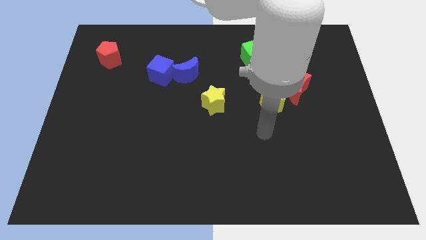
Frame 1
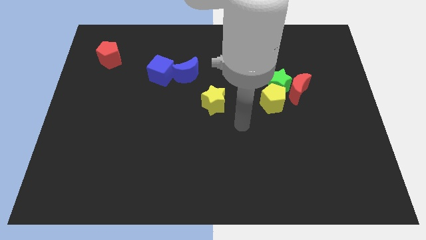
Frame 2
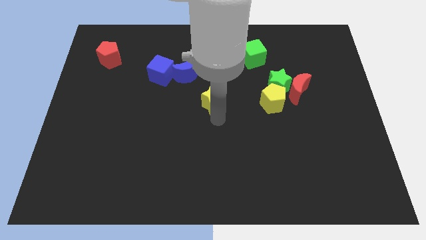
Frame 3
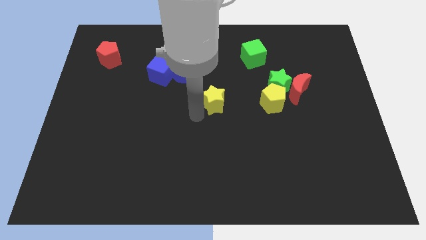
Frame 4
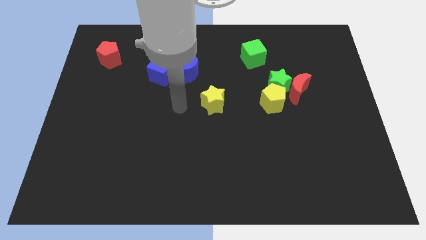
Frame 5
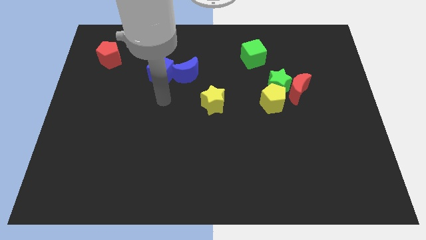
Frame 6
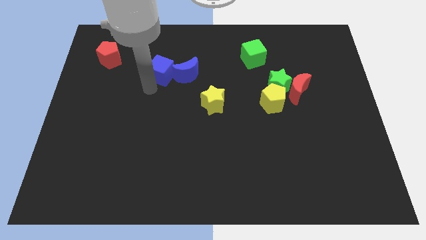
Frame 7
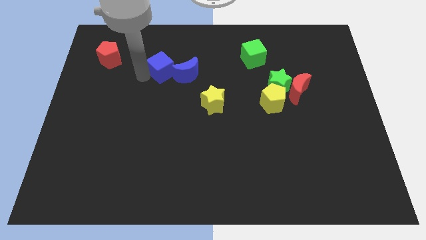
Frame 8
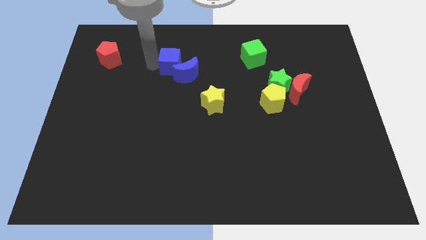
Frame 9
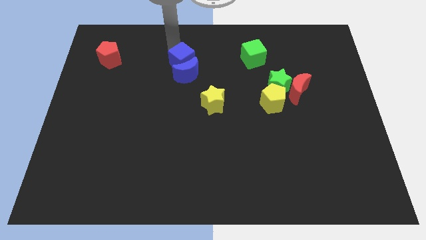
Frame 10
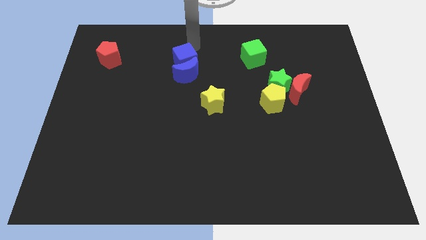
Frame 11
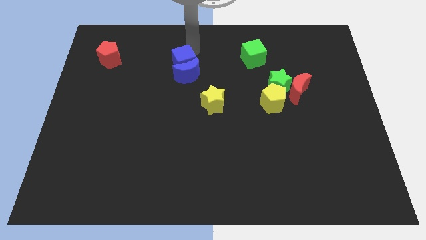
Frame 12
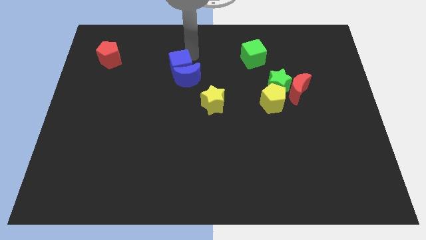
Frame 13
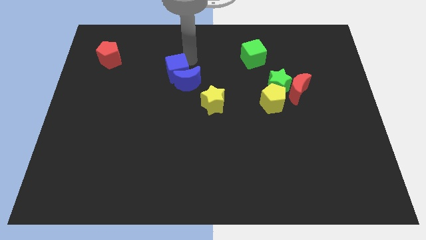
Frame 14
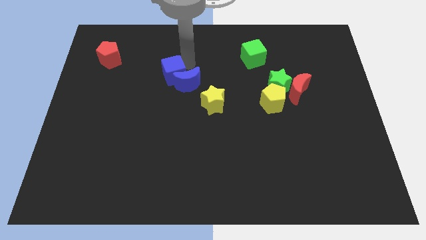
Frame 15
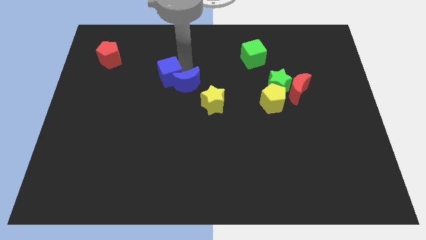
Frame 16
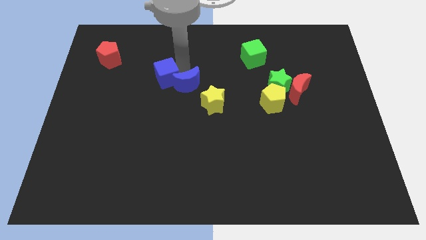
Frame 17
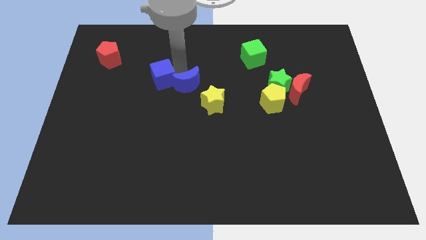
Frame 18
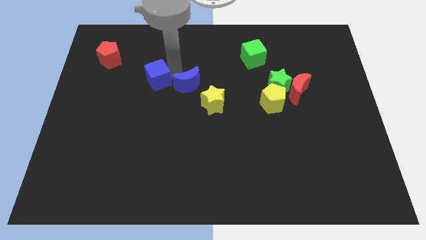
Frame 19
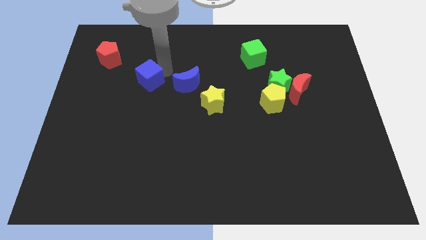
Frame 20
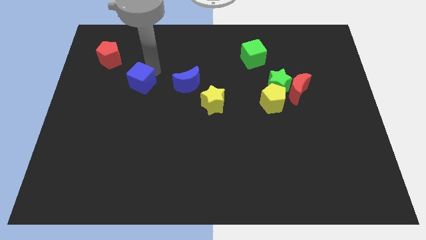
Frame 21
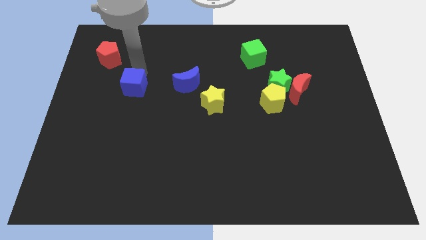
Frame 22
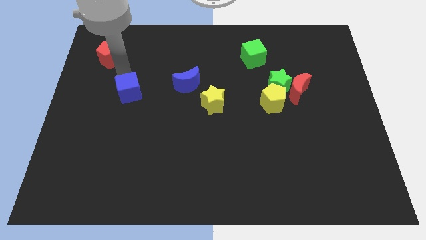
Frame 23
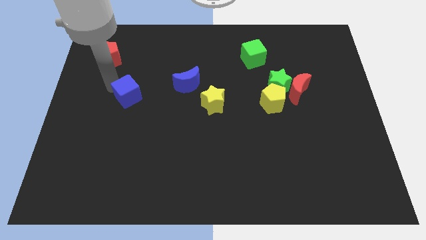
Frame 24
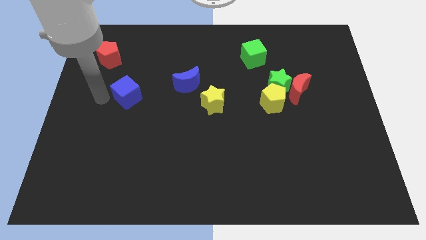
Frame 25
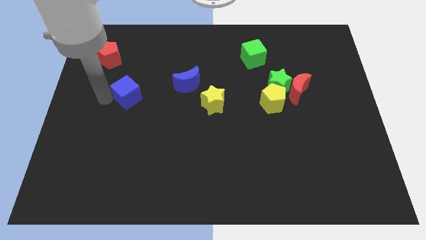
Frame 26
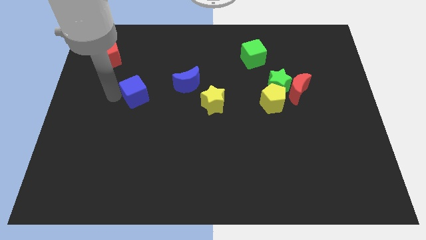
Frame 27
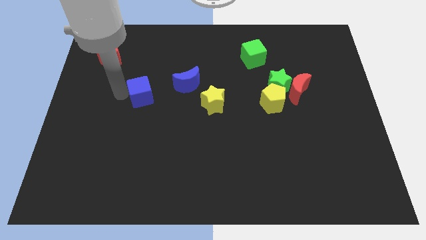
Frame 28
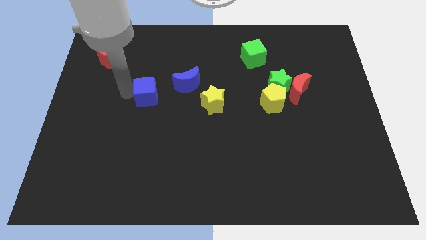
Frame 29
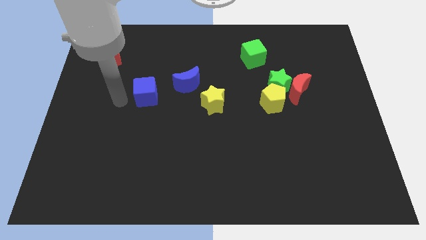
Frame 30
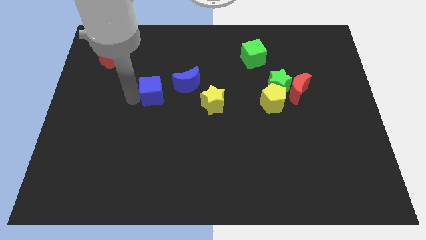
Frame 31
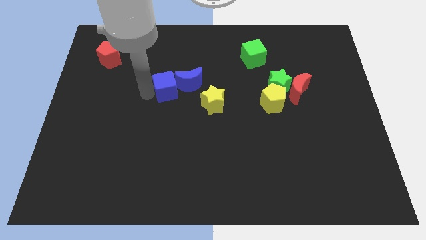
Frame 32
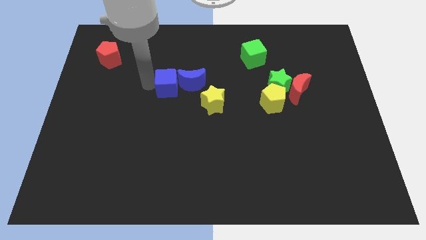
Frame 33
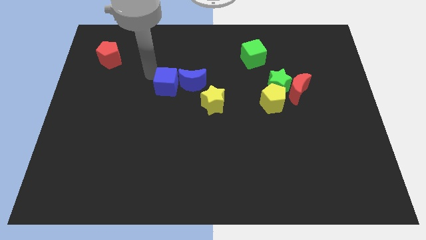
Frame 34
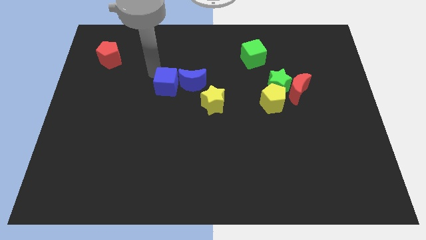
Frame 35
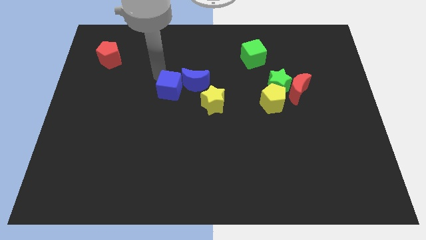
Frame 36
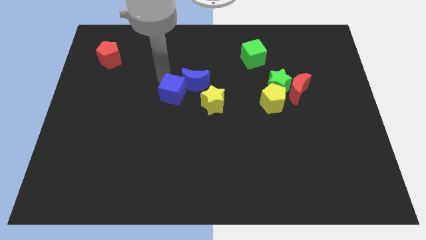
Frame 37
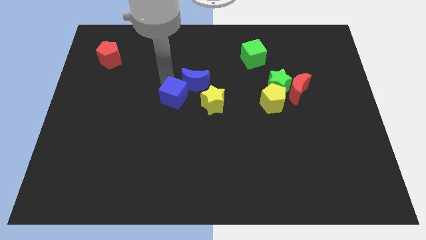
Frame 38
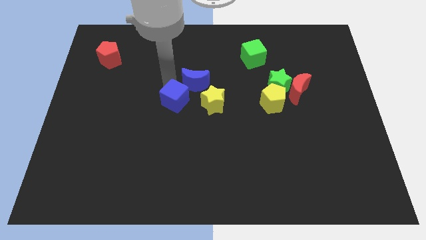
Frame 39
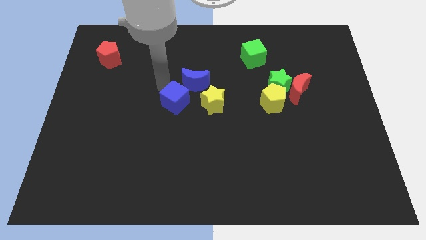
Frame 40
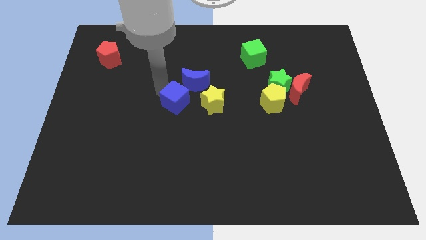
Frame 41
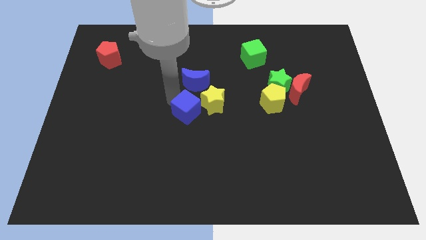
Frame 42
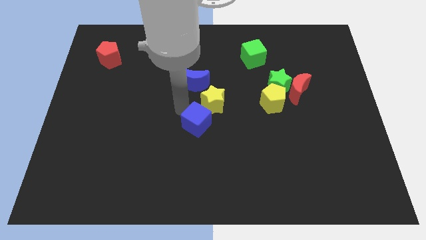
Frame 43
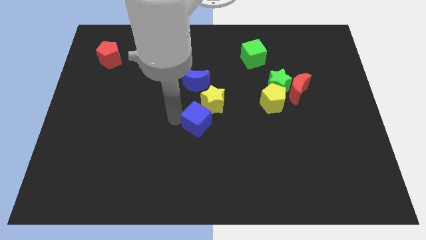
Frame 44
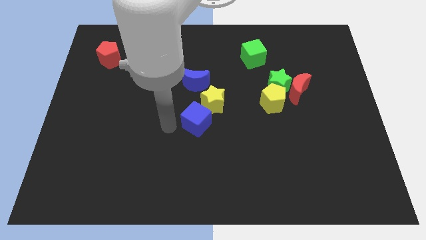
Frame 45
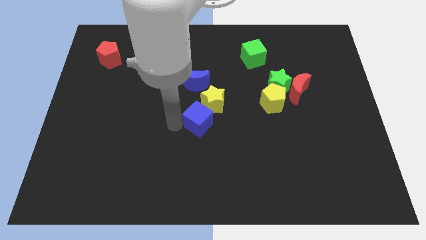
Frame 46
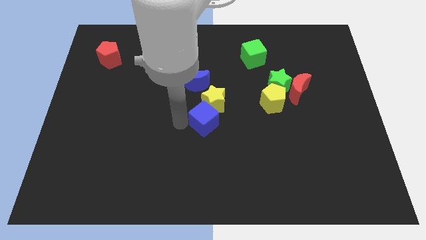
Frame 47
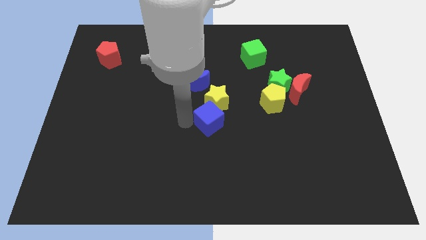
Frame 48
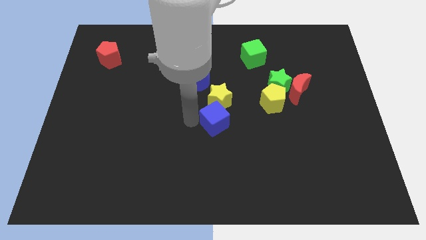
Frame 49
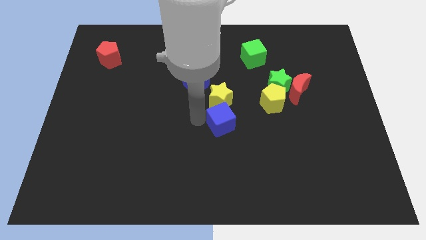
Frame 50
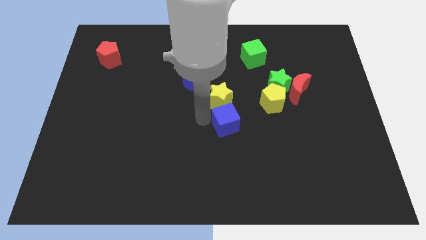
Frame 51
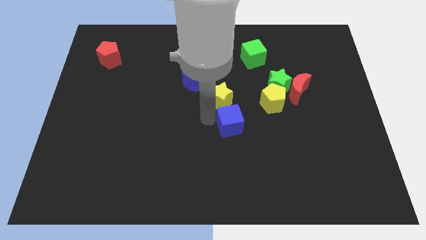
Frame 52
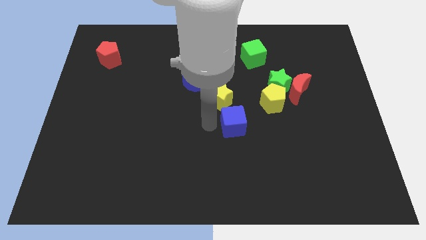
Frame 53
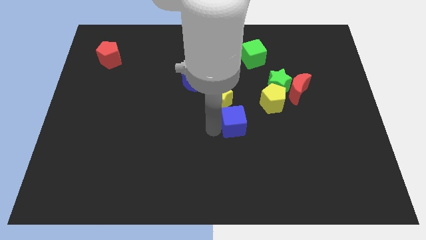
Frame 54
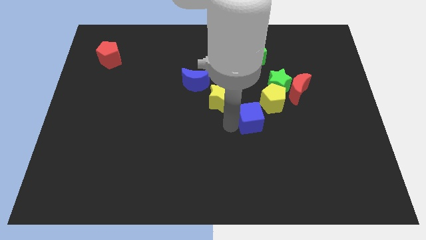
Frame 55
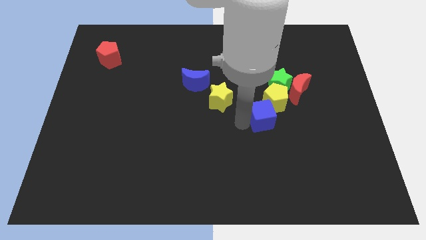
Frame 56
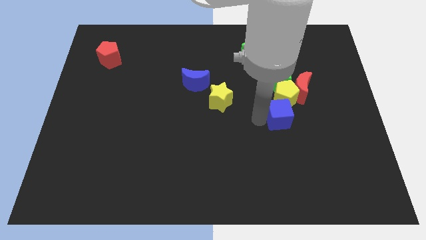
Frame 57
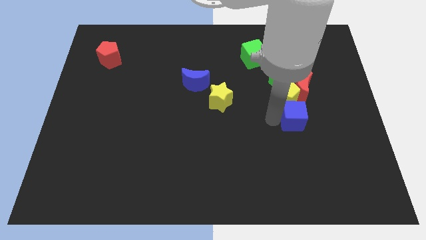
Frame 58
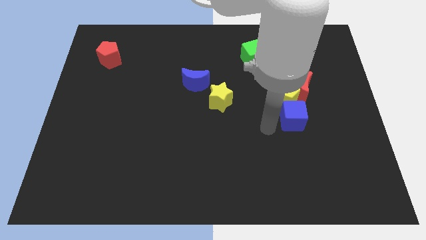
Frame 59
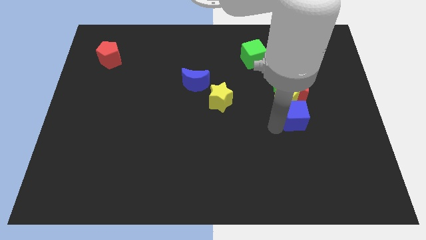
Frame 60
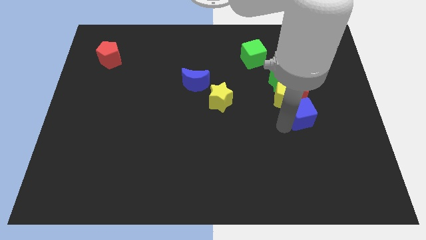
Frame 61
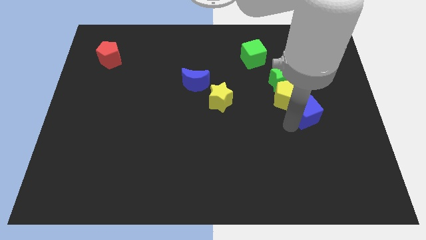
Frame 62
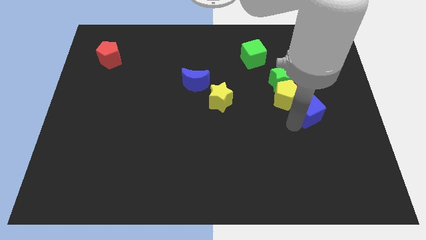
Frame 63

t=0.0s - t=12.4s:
put the blue cube to the bottom right side of the red moon
